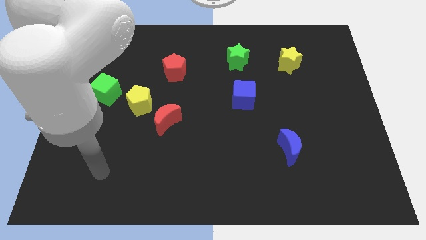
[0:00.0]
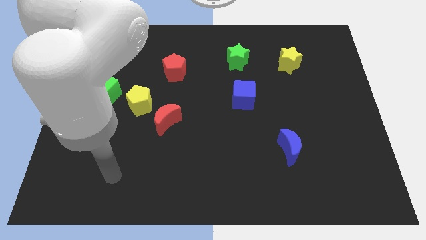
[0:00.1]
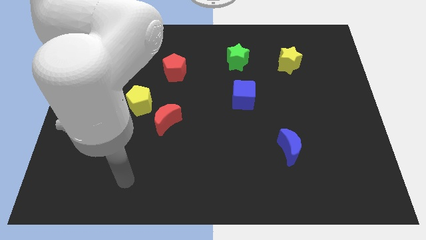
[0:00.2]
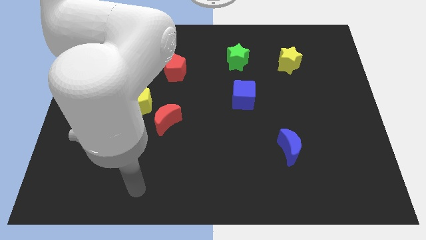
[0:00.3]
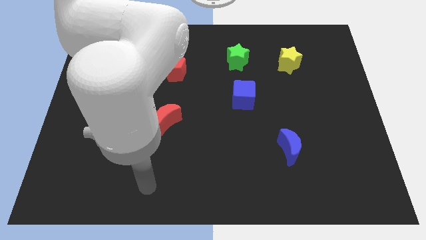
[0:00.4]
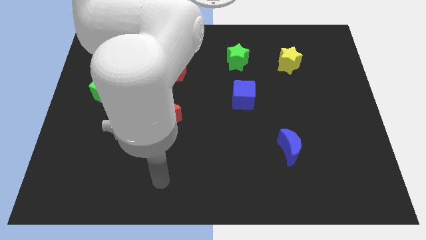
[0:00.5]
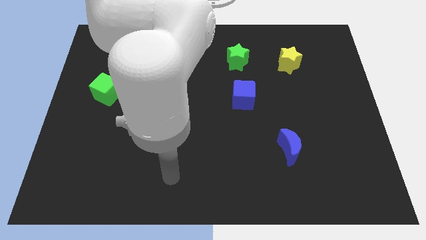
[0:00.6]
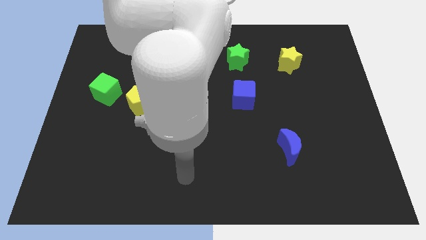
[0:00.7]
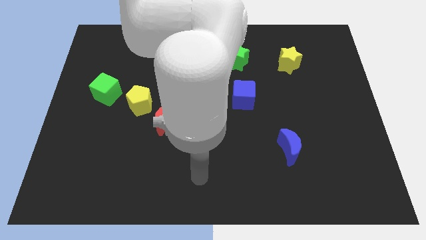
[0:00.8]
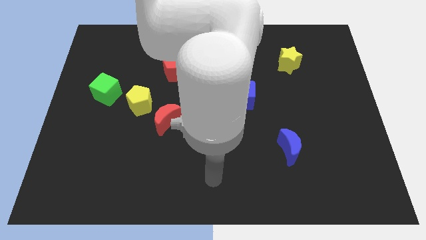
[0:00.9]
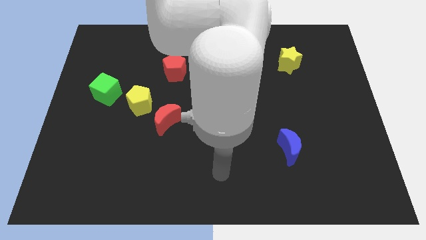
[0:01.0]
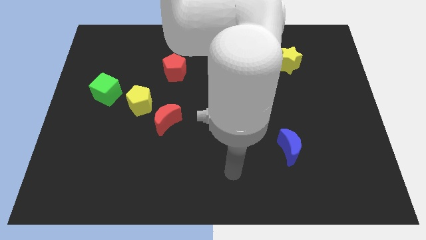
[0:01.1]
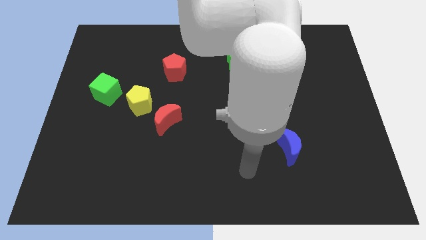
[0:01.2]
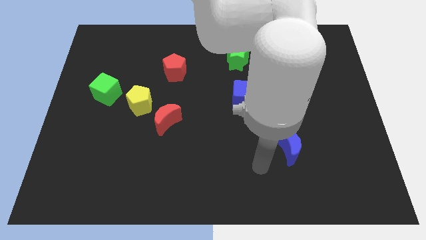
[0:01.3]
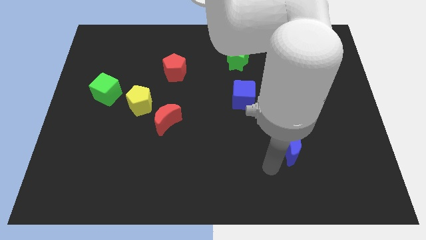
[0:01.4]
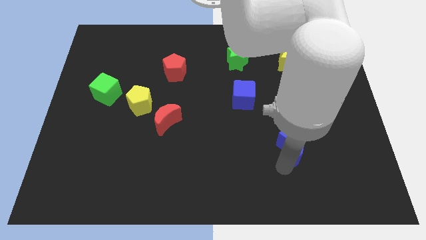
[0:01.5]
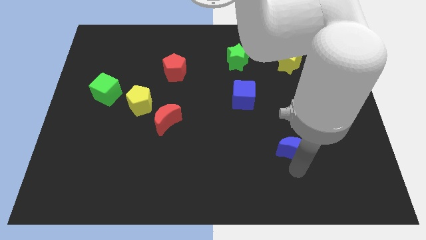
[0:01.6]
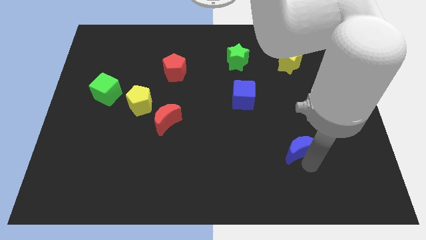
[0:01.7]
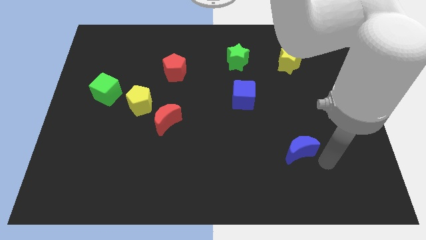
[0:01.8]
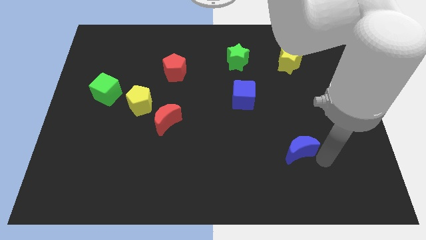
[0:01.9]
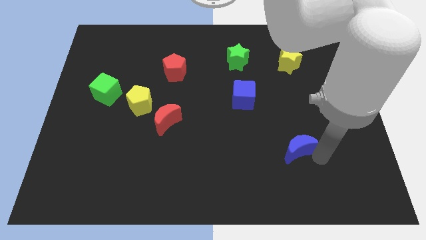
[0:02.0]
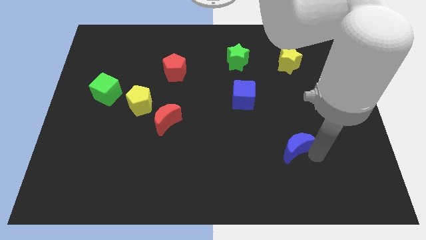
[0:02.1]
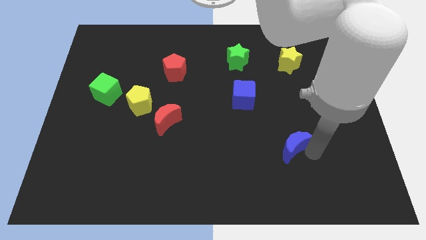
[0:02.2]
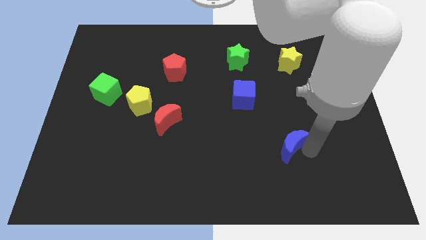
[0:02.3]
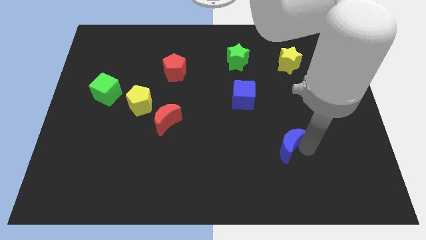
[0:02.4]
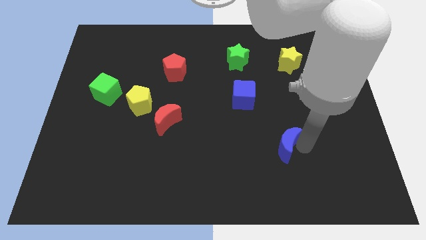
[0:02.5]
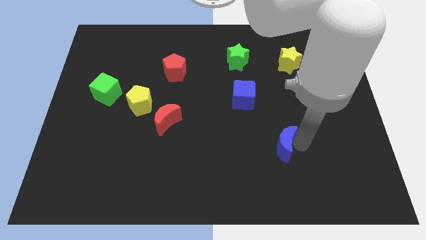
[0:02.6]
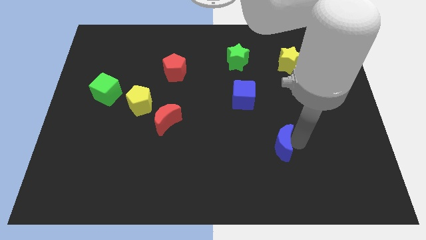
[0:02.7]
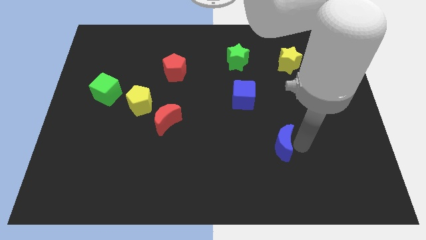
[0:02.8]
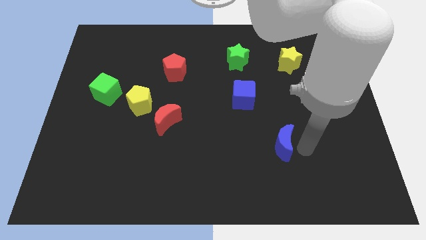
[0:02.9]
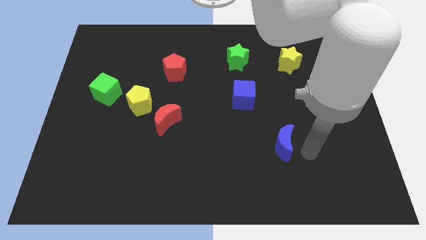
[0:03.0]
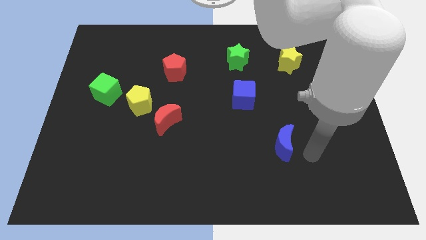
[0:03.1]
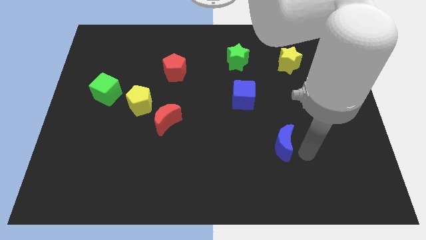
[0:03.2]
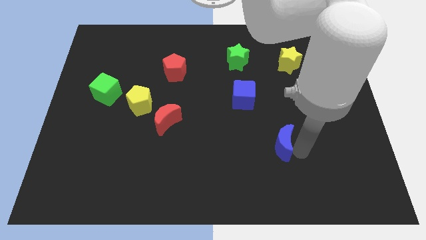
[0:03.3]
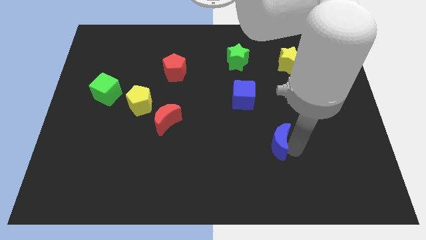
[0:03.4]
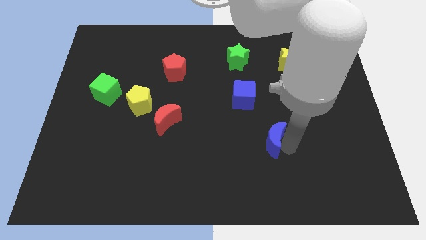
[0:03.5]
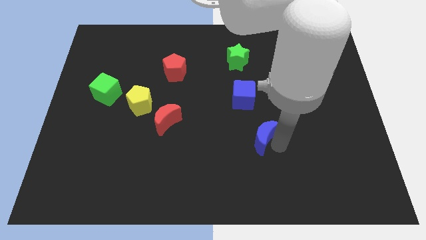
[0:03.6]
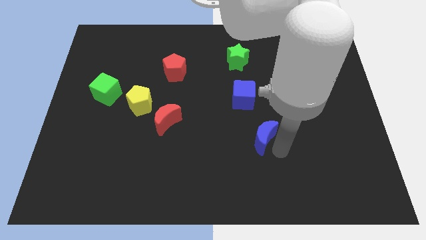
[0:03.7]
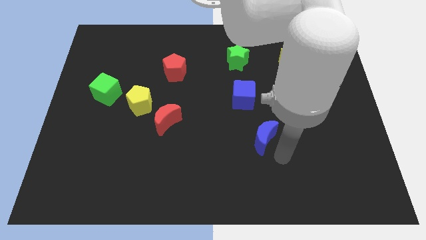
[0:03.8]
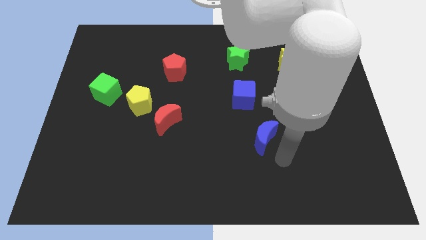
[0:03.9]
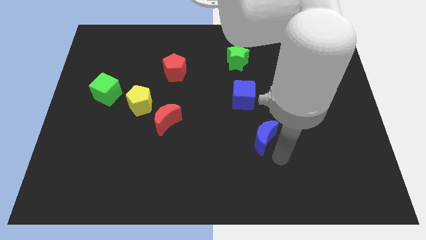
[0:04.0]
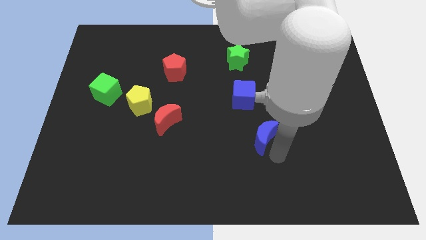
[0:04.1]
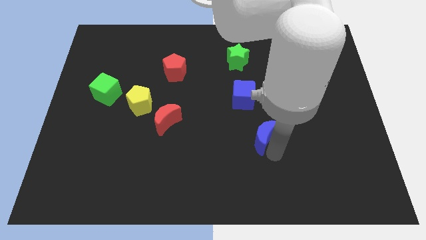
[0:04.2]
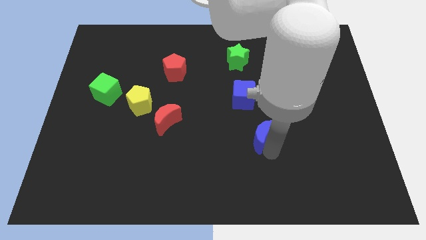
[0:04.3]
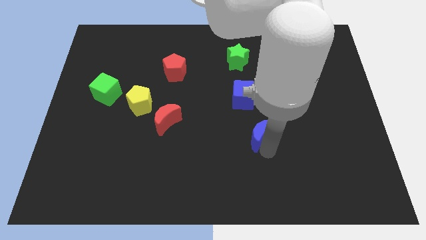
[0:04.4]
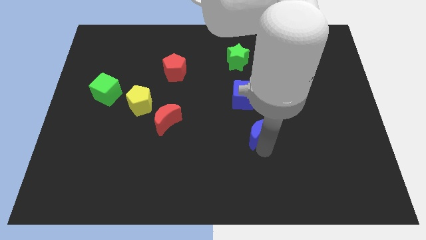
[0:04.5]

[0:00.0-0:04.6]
move the blue moon diagonally up and left a little bit

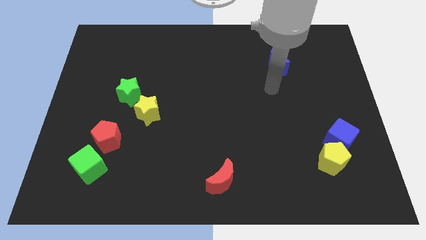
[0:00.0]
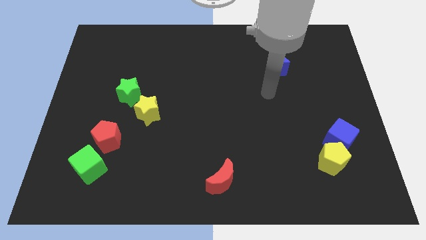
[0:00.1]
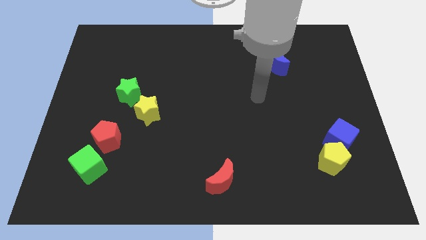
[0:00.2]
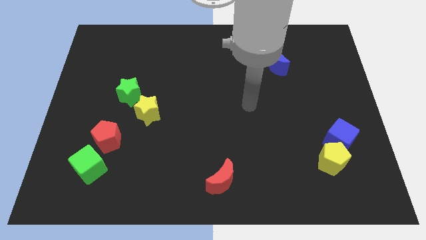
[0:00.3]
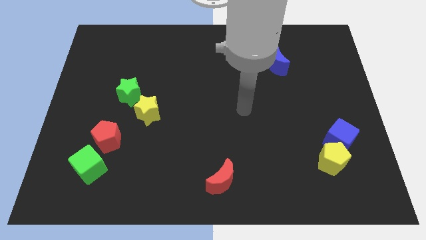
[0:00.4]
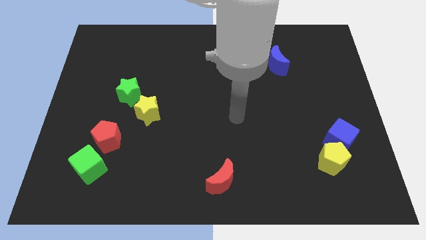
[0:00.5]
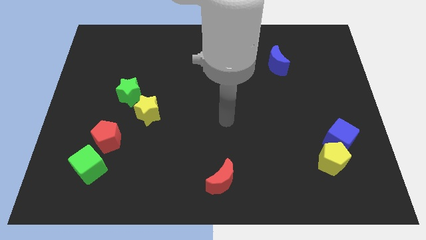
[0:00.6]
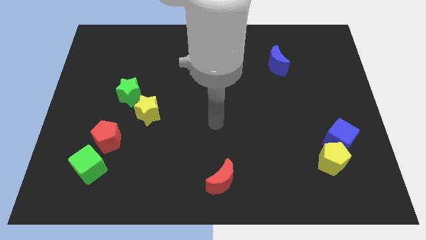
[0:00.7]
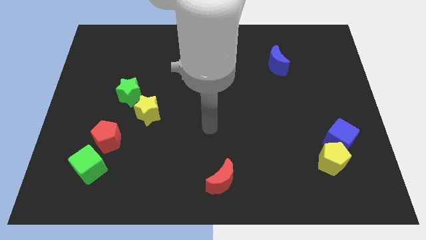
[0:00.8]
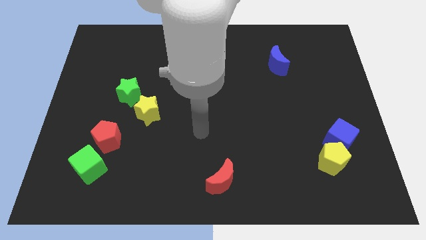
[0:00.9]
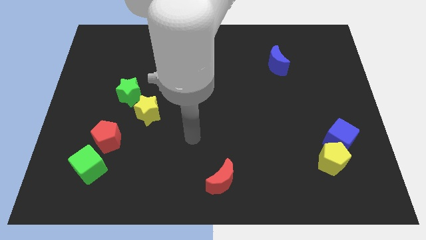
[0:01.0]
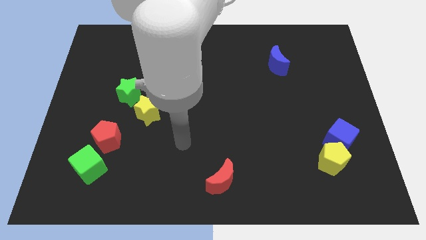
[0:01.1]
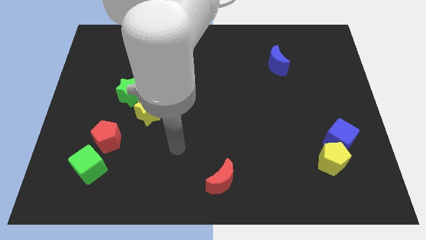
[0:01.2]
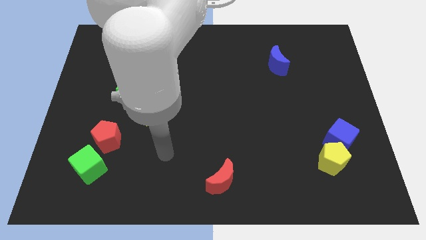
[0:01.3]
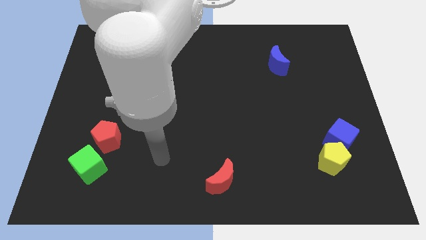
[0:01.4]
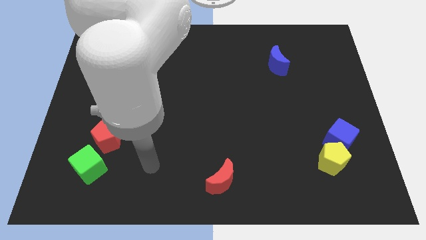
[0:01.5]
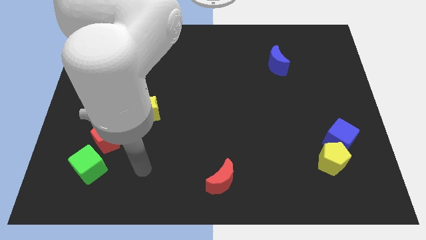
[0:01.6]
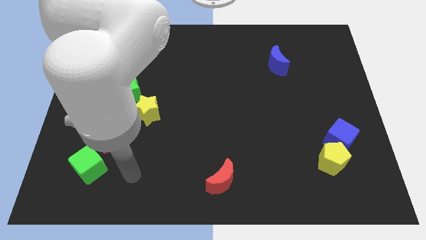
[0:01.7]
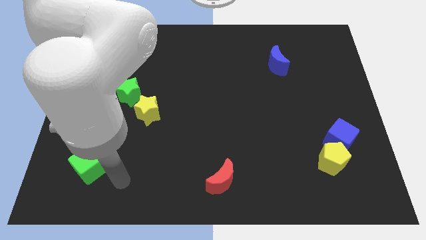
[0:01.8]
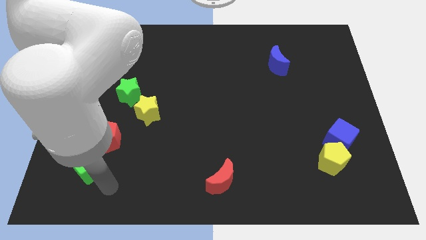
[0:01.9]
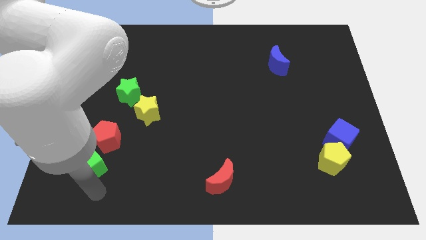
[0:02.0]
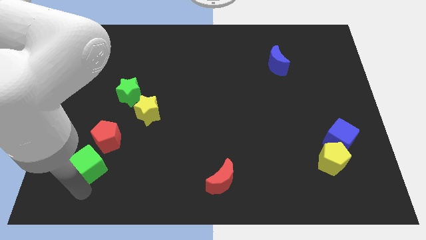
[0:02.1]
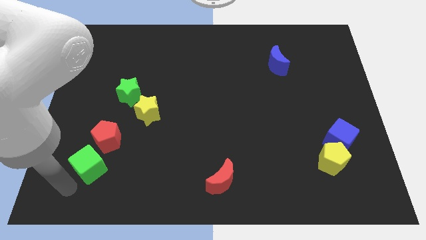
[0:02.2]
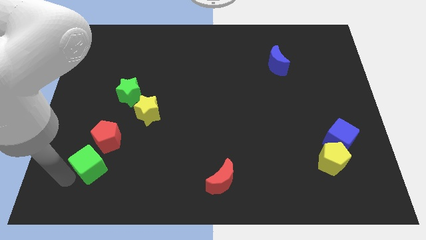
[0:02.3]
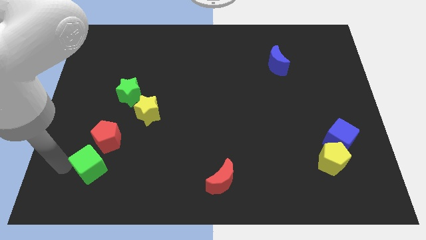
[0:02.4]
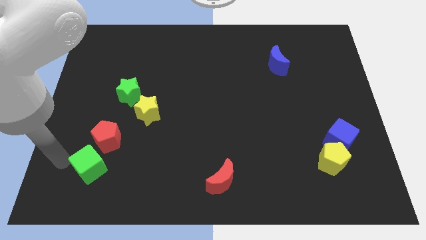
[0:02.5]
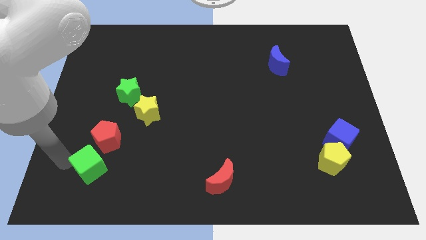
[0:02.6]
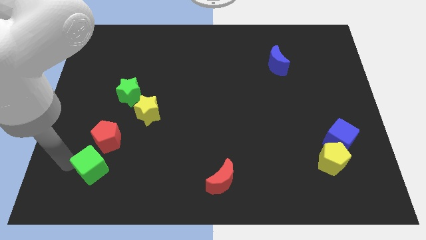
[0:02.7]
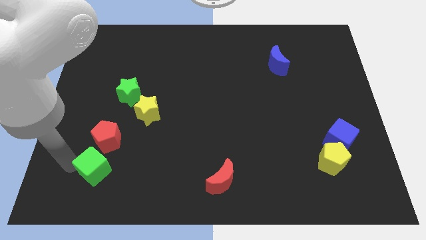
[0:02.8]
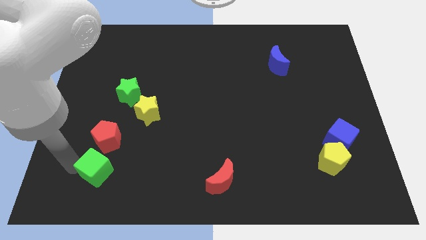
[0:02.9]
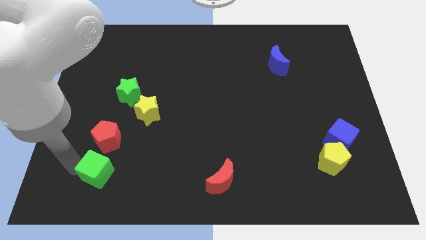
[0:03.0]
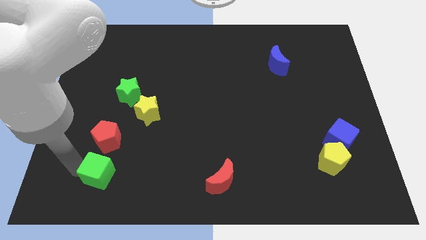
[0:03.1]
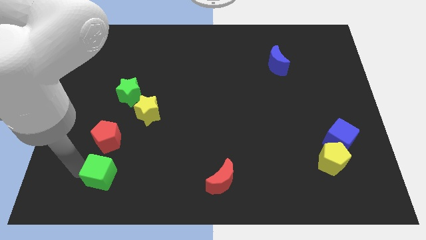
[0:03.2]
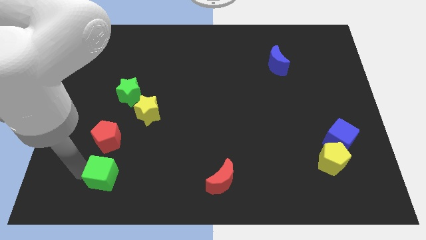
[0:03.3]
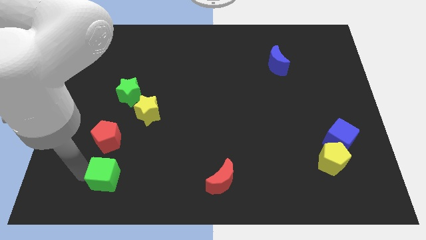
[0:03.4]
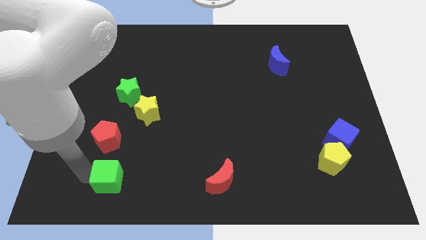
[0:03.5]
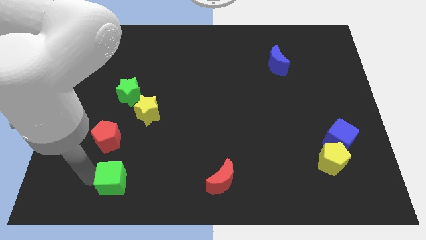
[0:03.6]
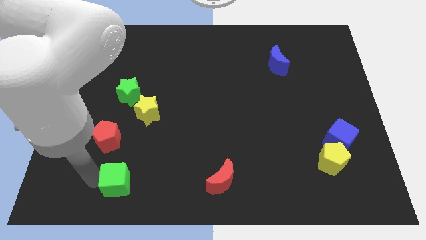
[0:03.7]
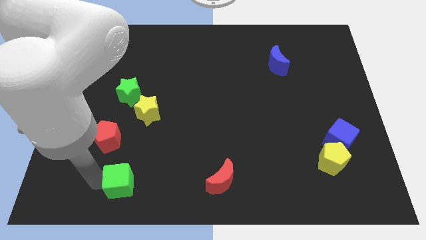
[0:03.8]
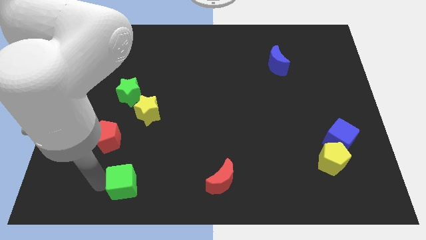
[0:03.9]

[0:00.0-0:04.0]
slightly move the green cube to the right
